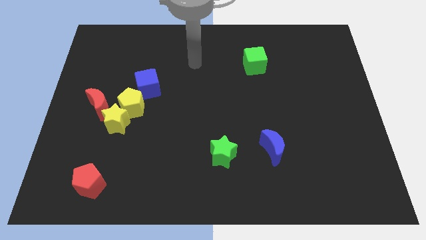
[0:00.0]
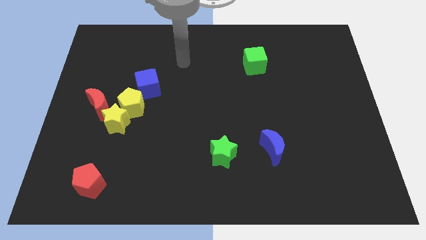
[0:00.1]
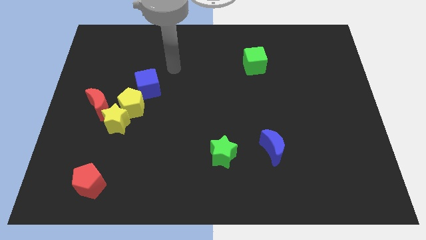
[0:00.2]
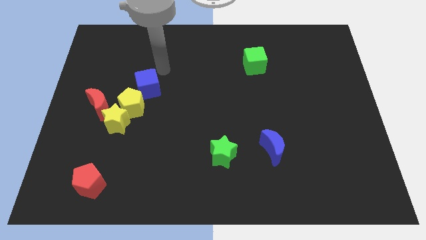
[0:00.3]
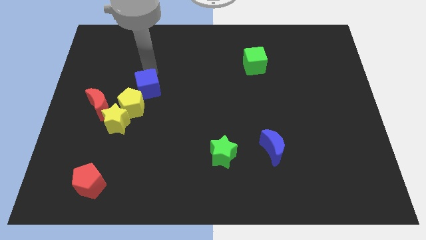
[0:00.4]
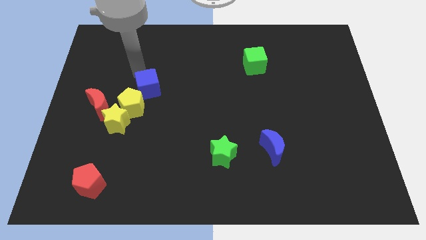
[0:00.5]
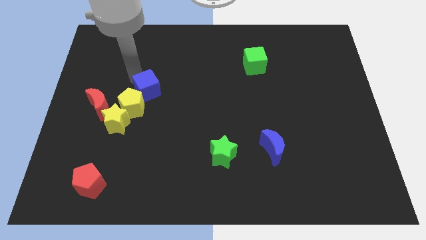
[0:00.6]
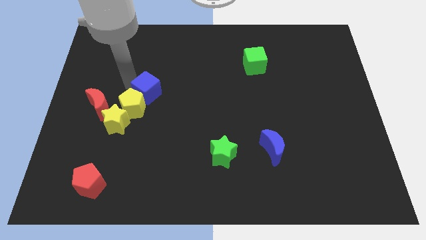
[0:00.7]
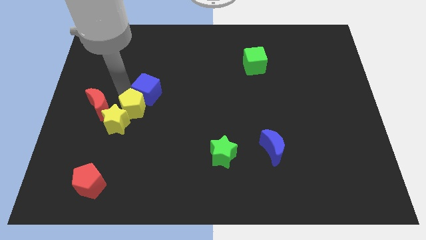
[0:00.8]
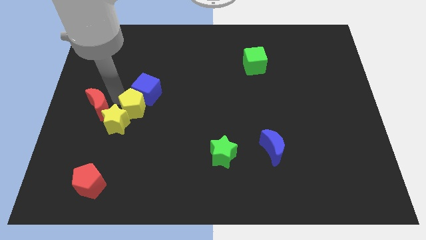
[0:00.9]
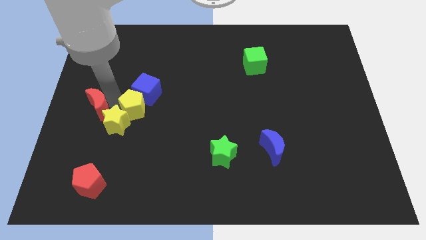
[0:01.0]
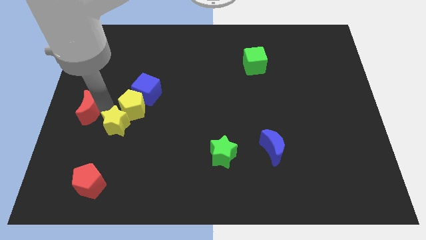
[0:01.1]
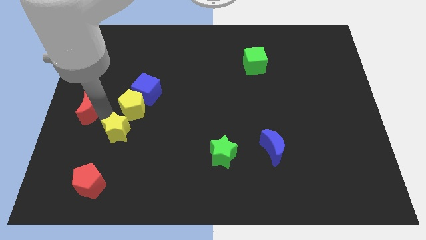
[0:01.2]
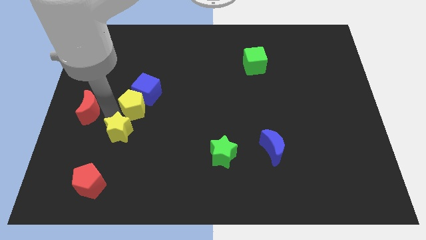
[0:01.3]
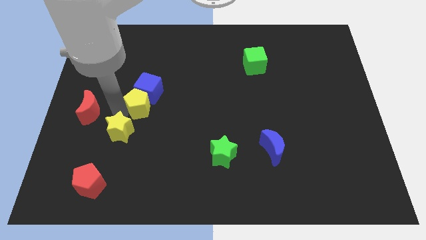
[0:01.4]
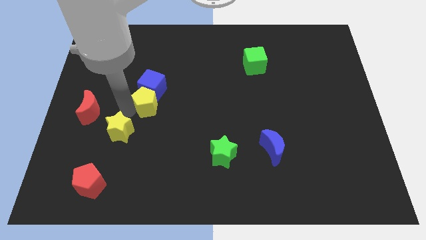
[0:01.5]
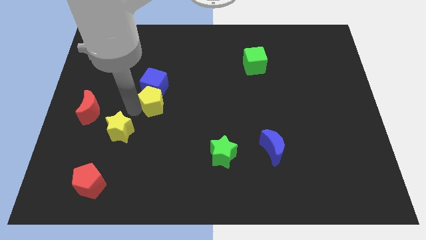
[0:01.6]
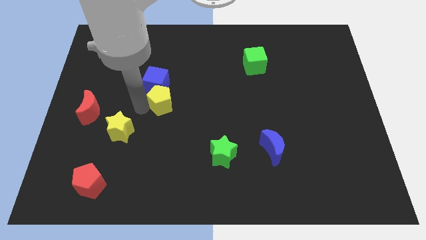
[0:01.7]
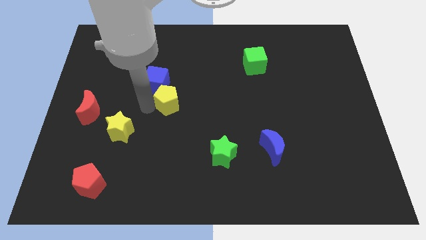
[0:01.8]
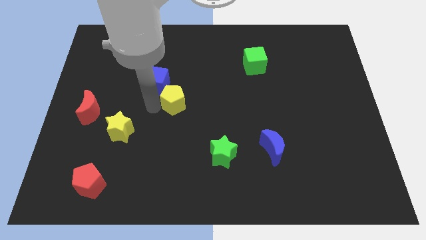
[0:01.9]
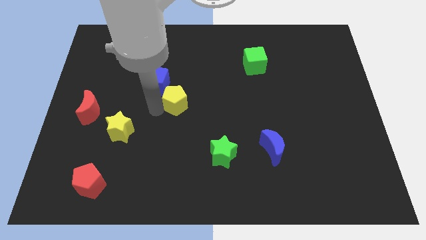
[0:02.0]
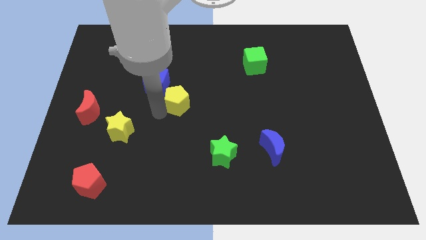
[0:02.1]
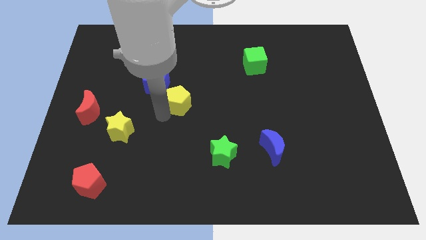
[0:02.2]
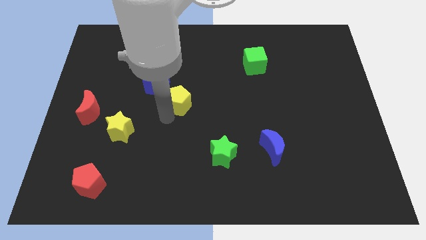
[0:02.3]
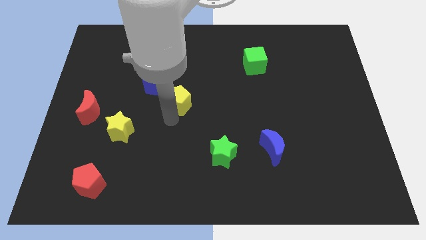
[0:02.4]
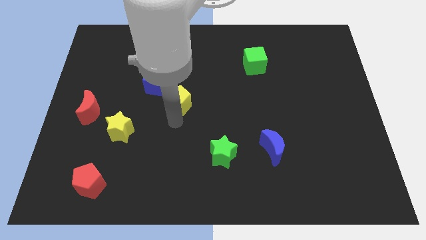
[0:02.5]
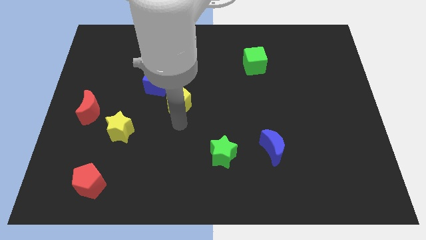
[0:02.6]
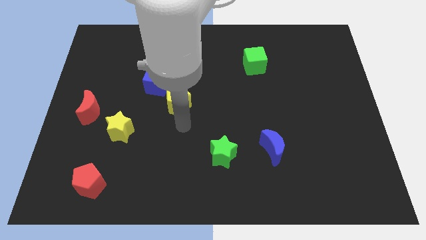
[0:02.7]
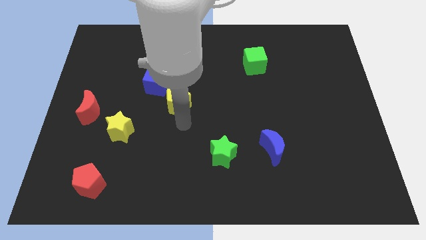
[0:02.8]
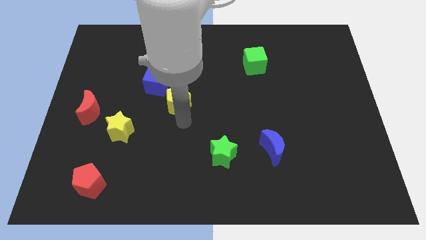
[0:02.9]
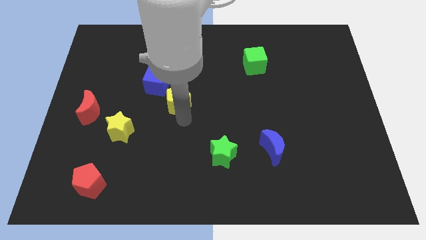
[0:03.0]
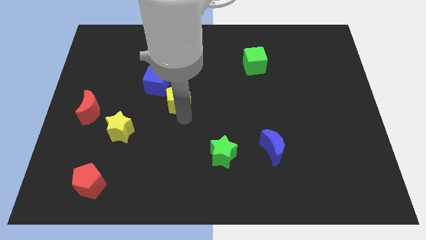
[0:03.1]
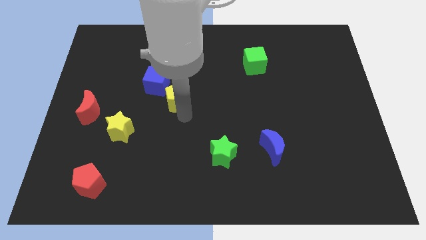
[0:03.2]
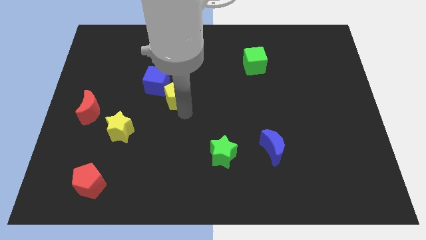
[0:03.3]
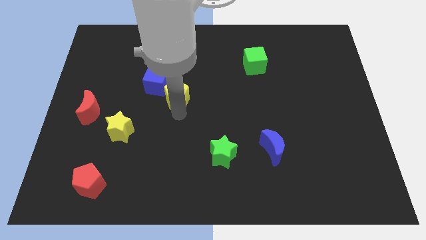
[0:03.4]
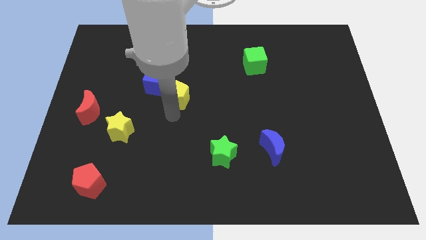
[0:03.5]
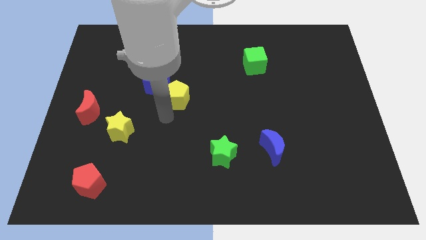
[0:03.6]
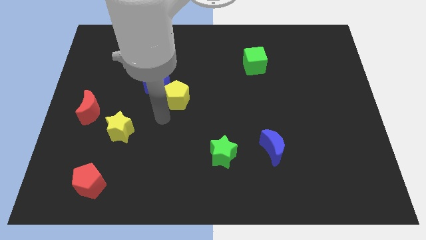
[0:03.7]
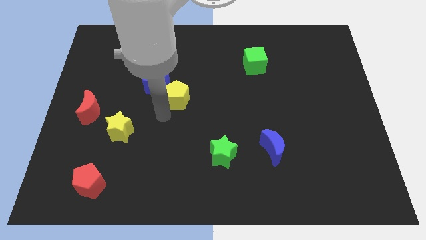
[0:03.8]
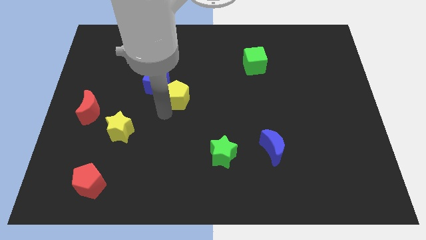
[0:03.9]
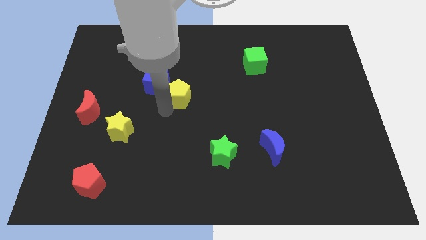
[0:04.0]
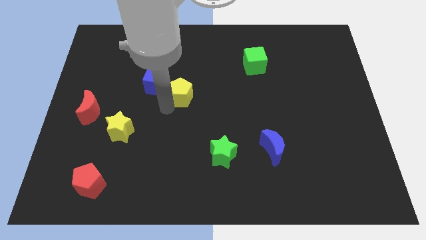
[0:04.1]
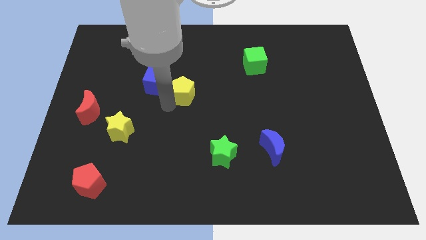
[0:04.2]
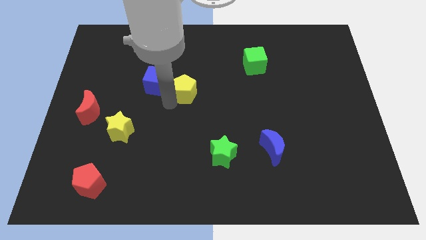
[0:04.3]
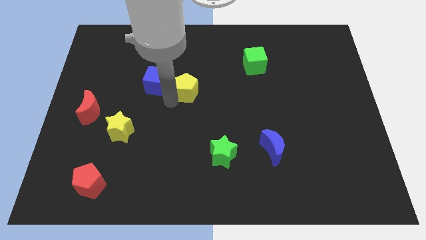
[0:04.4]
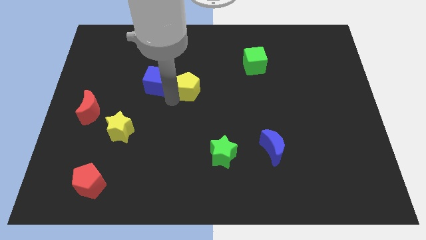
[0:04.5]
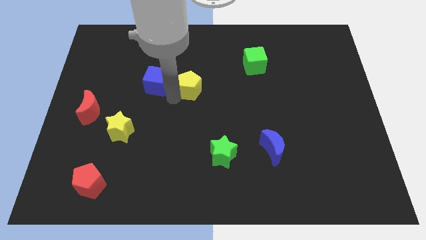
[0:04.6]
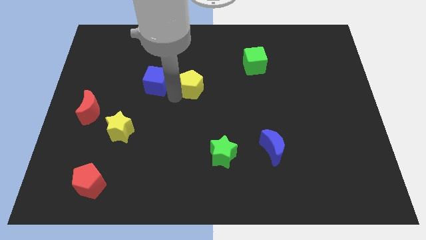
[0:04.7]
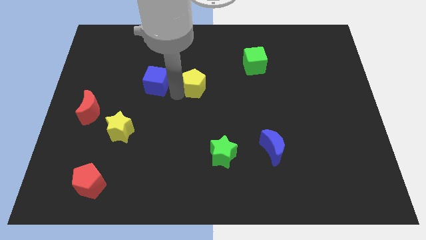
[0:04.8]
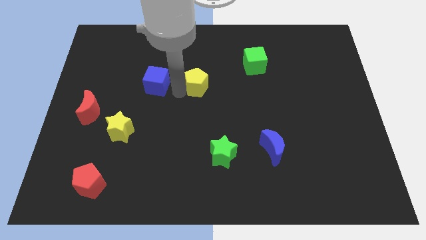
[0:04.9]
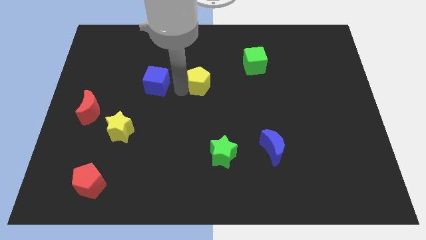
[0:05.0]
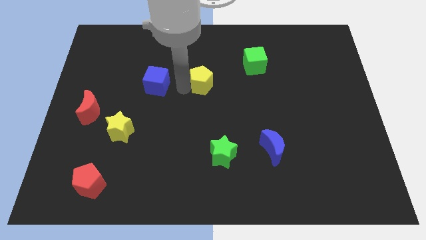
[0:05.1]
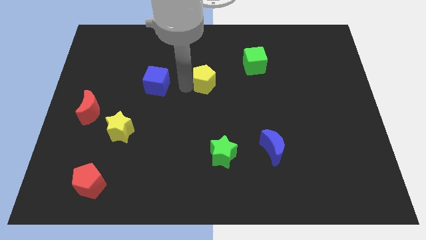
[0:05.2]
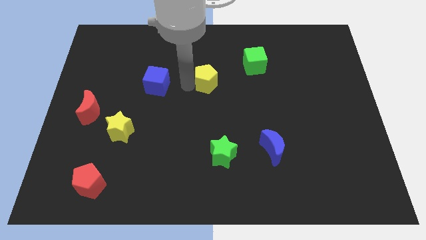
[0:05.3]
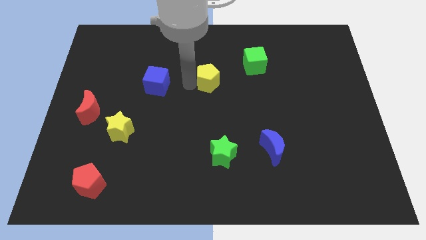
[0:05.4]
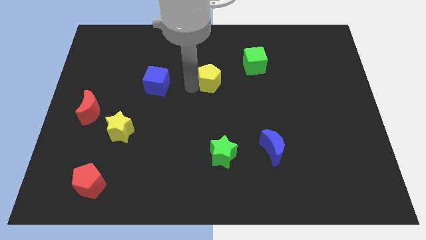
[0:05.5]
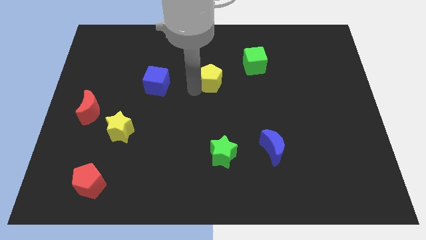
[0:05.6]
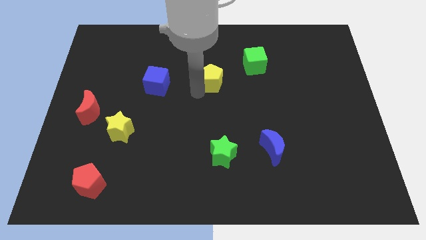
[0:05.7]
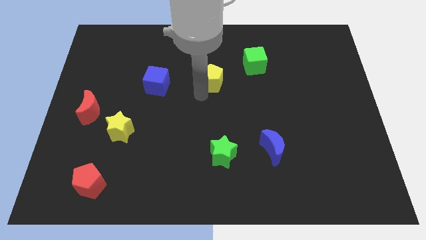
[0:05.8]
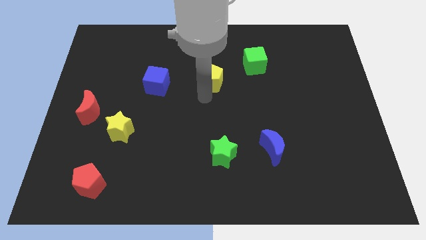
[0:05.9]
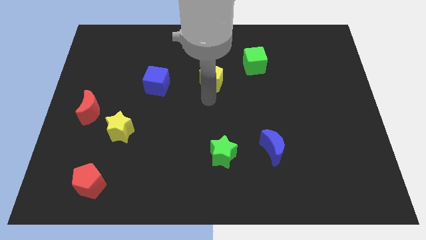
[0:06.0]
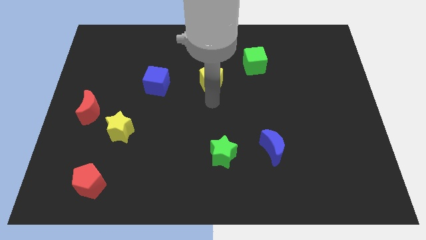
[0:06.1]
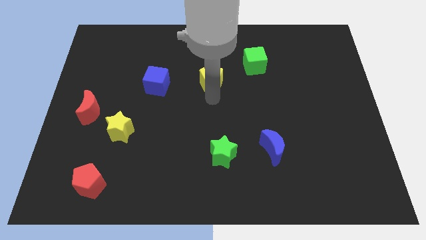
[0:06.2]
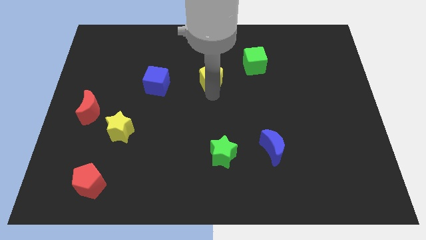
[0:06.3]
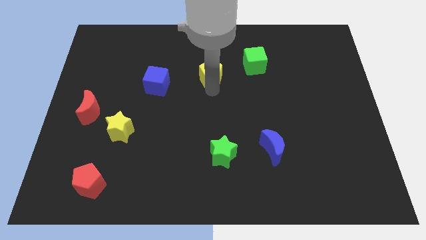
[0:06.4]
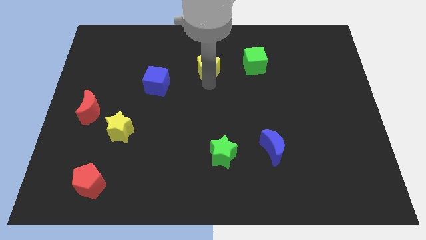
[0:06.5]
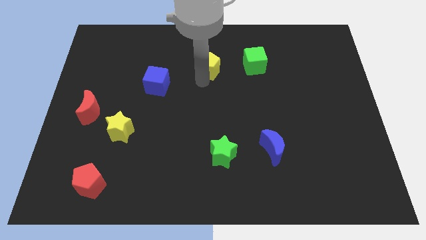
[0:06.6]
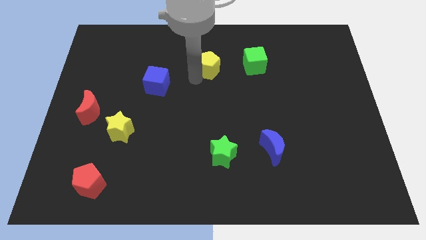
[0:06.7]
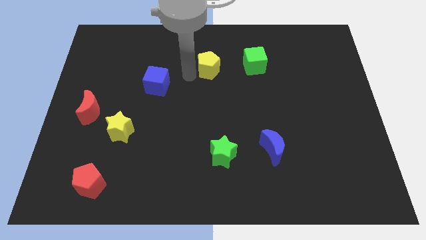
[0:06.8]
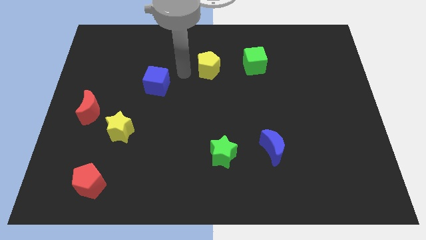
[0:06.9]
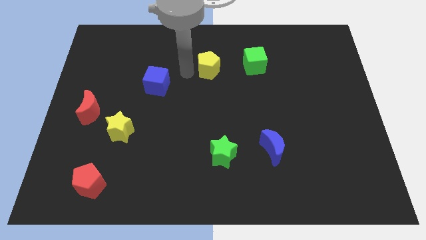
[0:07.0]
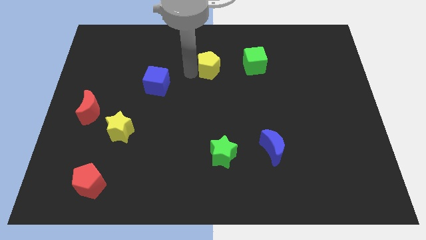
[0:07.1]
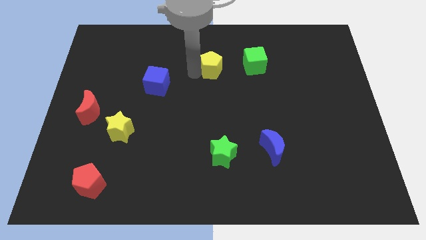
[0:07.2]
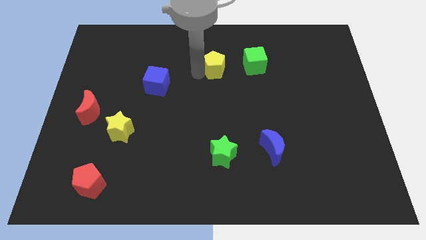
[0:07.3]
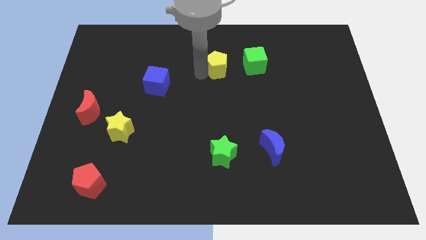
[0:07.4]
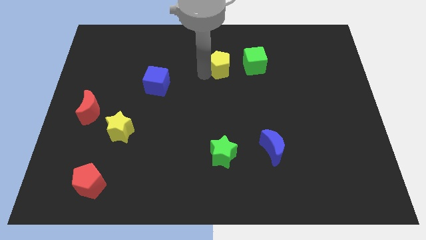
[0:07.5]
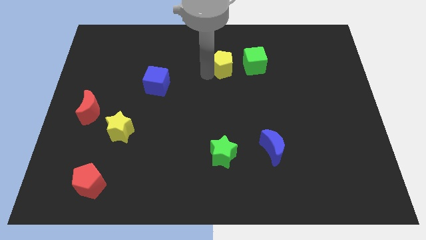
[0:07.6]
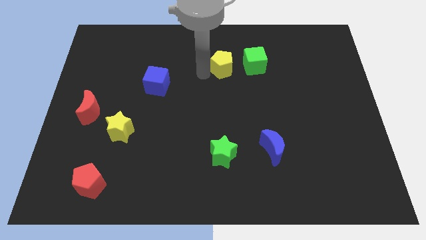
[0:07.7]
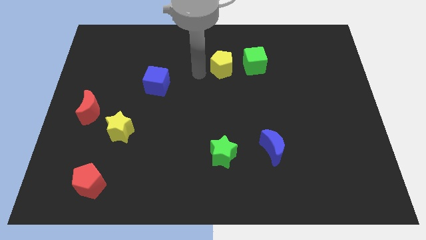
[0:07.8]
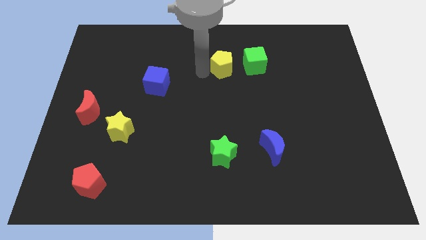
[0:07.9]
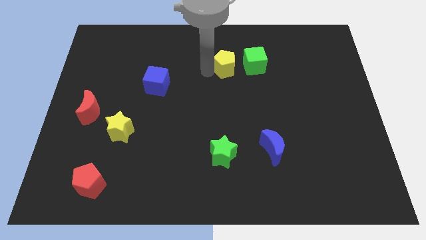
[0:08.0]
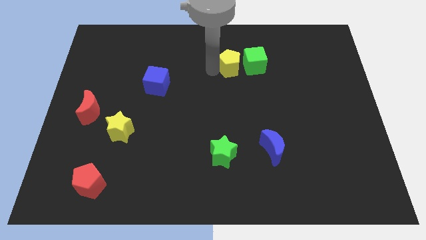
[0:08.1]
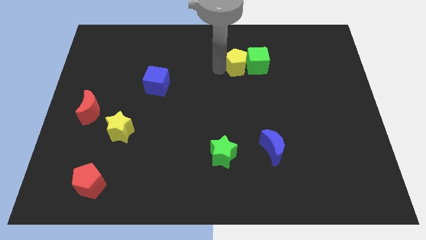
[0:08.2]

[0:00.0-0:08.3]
put the yellow pentagon to the green cube
